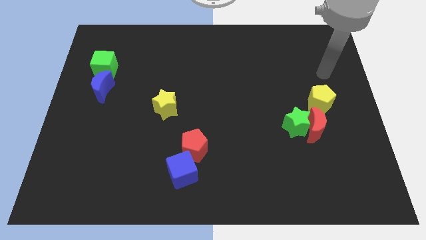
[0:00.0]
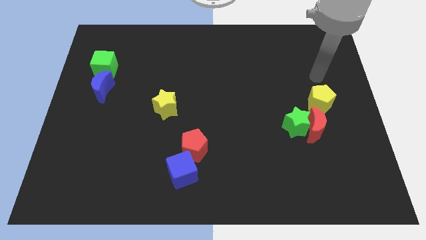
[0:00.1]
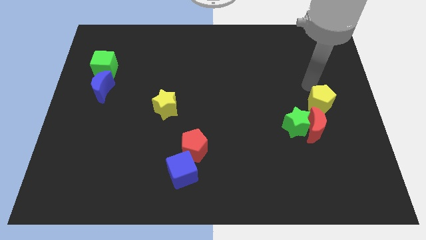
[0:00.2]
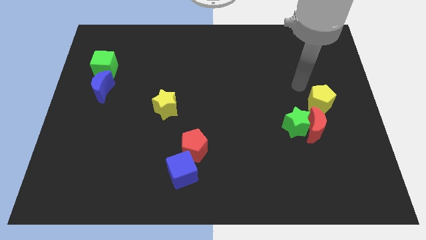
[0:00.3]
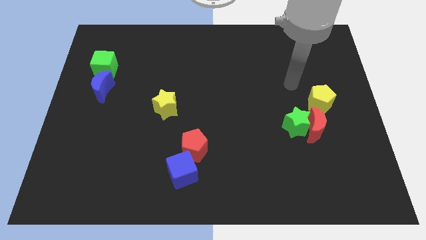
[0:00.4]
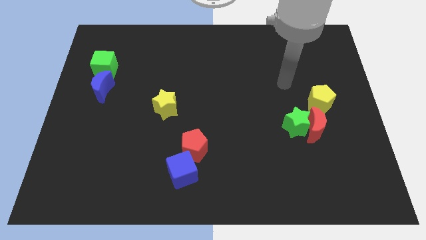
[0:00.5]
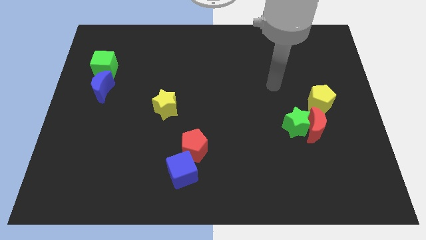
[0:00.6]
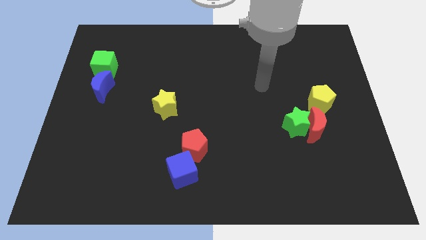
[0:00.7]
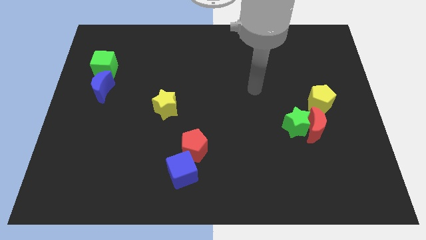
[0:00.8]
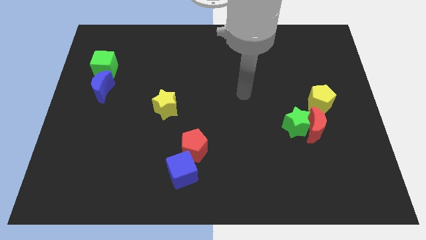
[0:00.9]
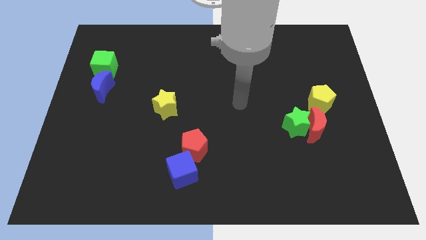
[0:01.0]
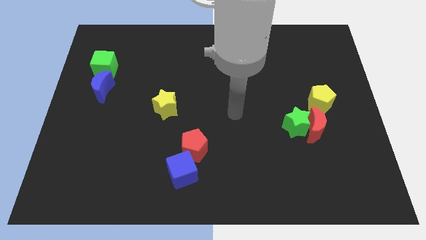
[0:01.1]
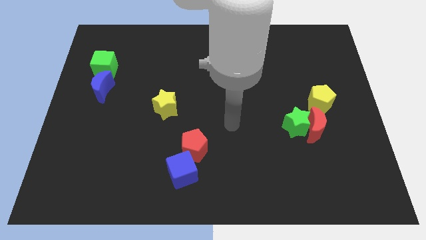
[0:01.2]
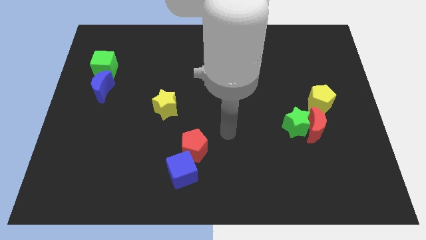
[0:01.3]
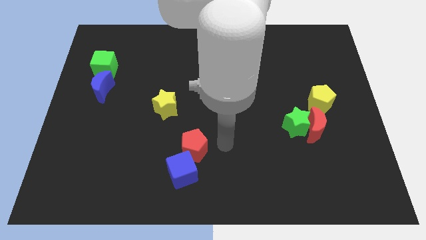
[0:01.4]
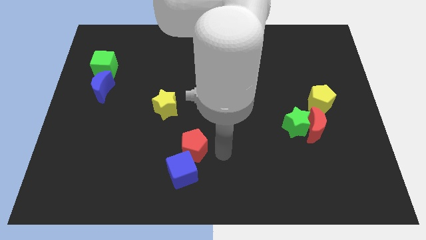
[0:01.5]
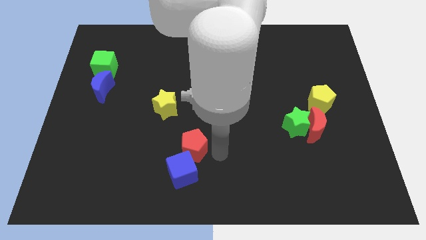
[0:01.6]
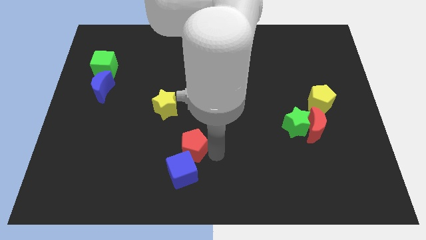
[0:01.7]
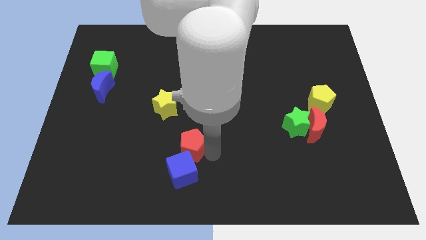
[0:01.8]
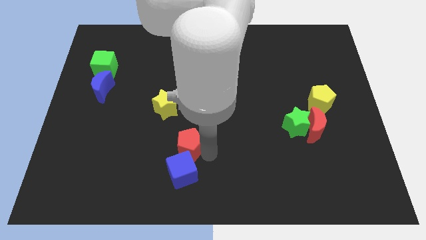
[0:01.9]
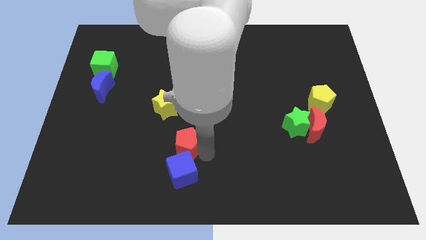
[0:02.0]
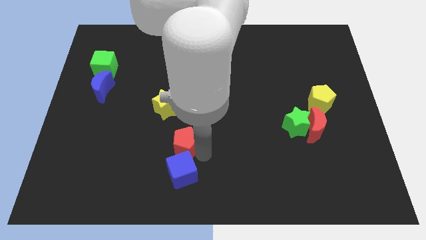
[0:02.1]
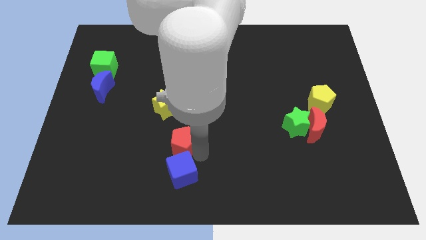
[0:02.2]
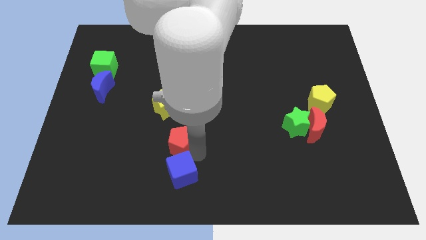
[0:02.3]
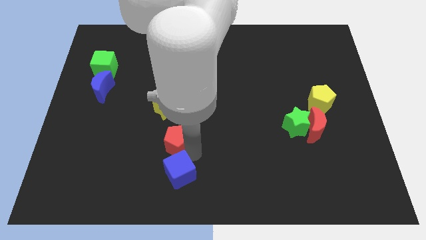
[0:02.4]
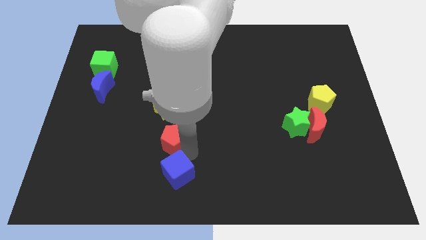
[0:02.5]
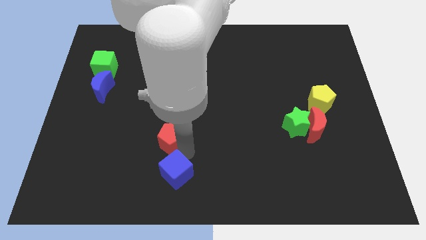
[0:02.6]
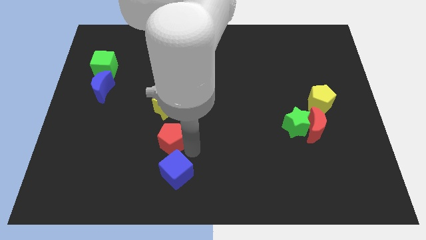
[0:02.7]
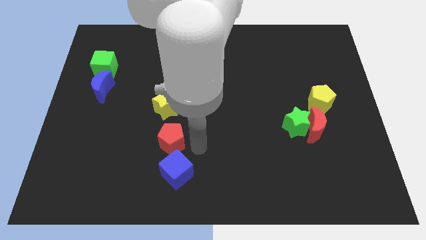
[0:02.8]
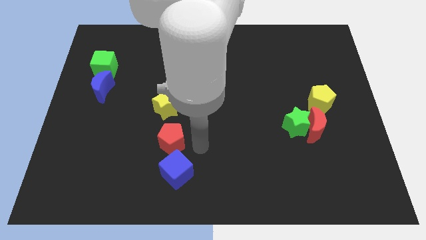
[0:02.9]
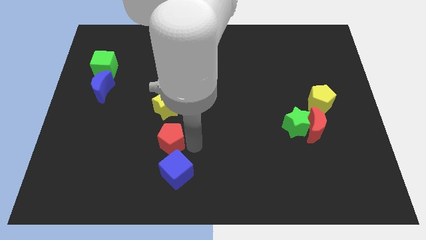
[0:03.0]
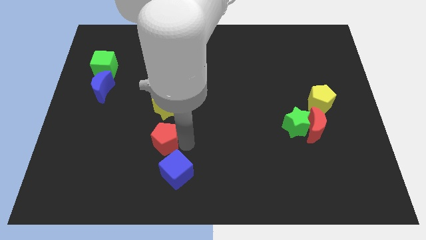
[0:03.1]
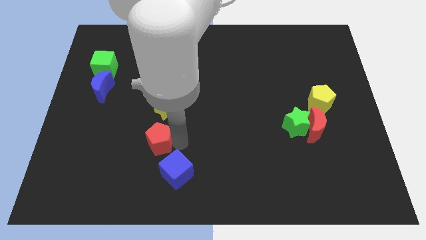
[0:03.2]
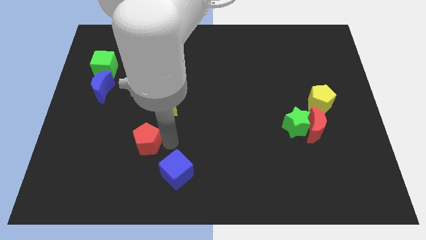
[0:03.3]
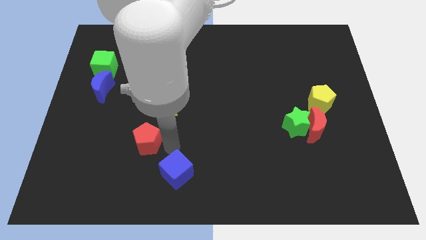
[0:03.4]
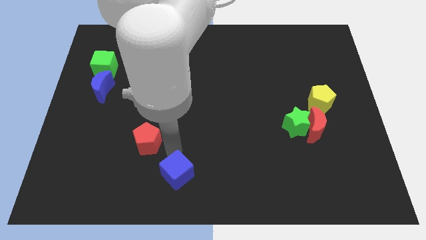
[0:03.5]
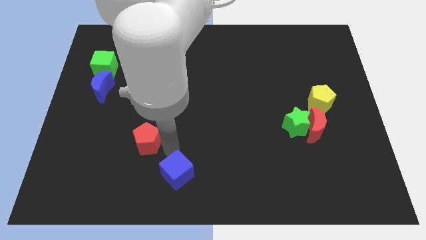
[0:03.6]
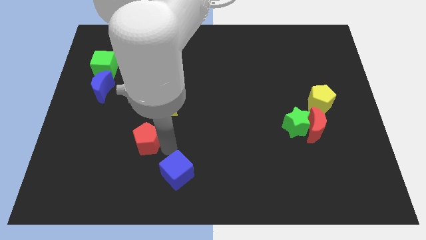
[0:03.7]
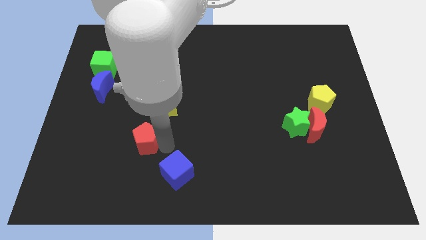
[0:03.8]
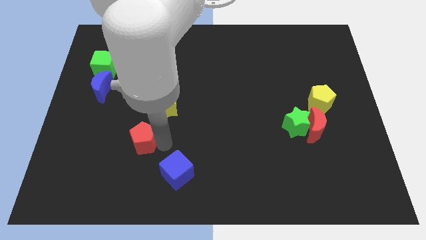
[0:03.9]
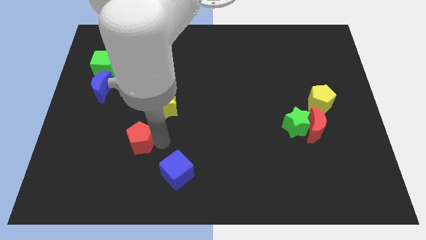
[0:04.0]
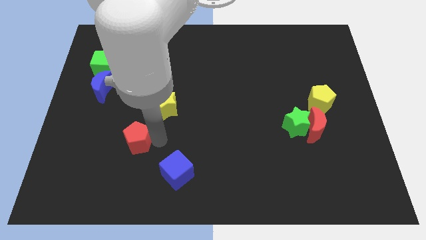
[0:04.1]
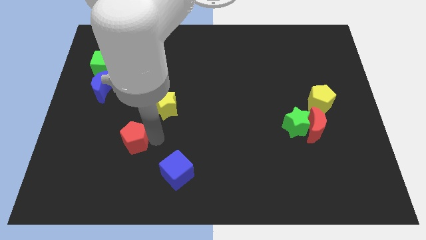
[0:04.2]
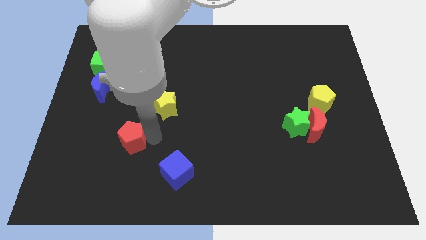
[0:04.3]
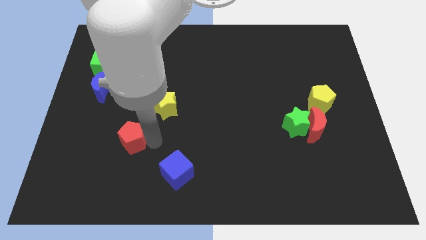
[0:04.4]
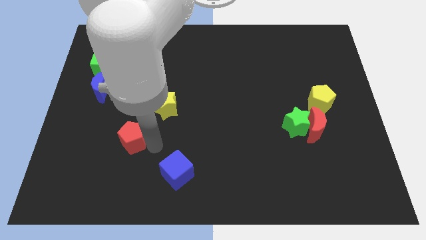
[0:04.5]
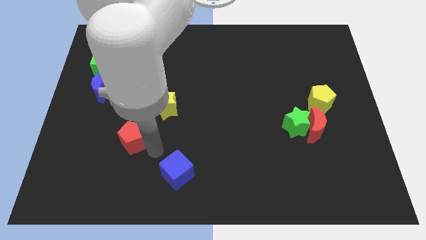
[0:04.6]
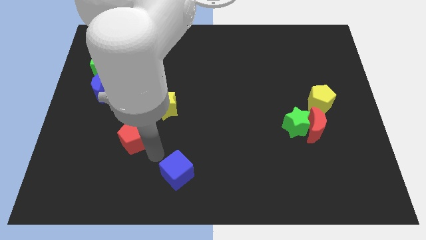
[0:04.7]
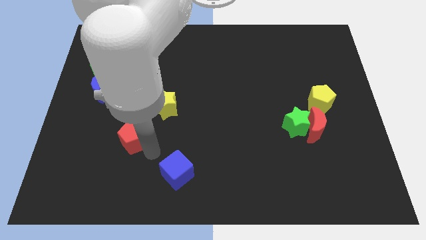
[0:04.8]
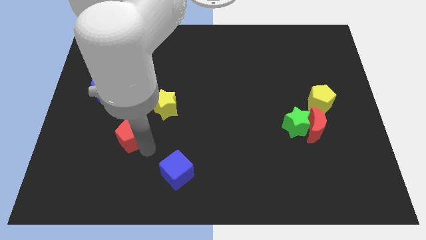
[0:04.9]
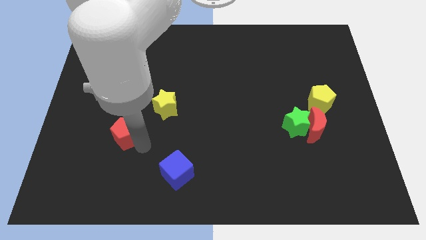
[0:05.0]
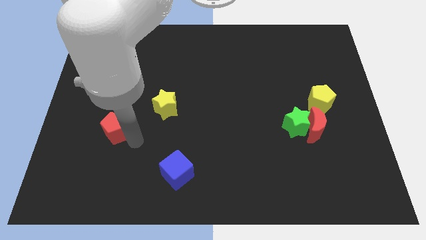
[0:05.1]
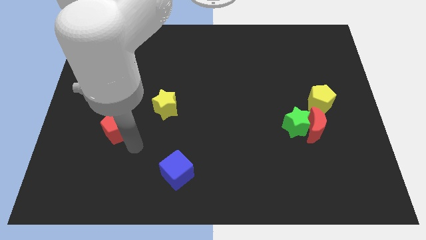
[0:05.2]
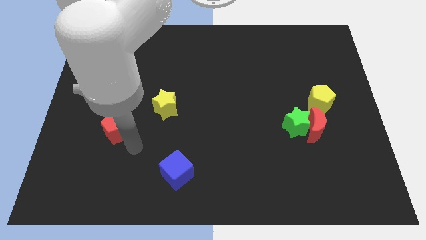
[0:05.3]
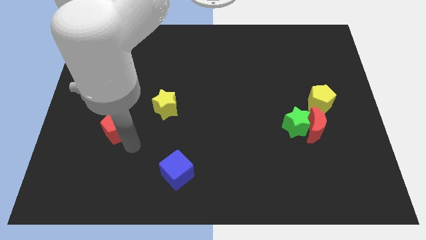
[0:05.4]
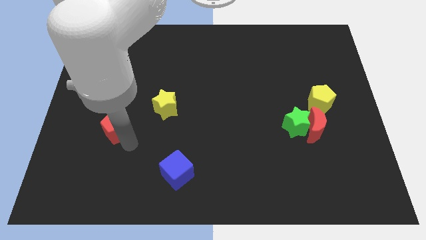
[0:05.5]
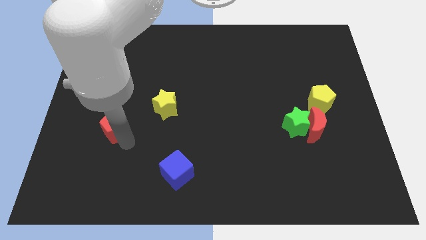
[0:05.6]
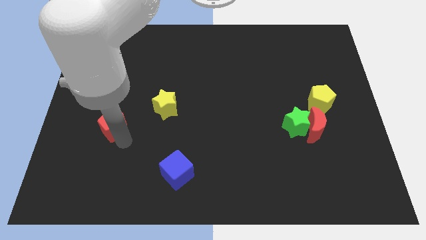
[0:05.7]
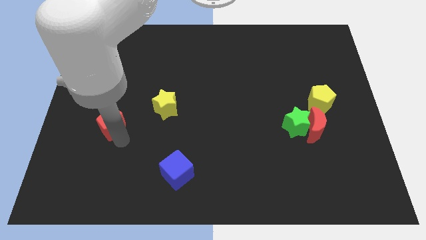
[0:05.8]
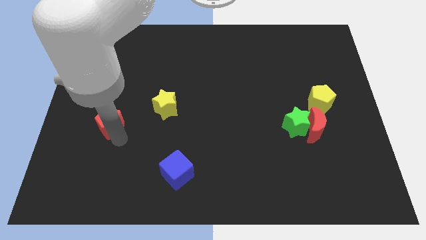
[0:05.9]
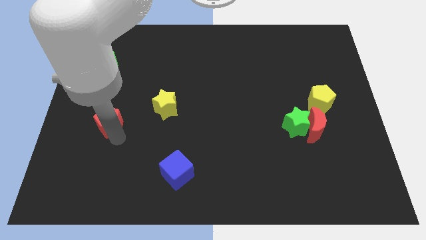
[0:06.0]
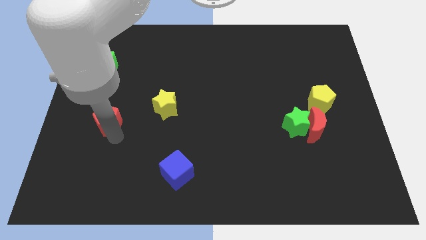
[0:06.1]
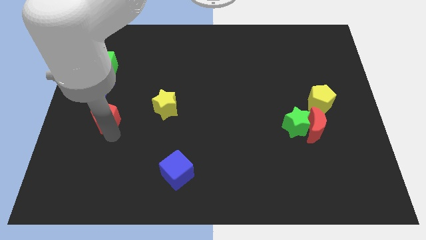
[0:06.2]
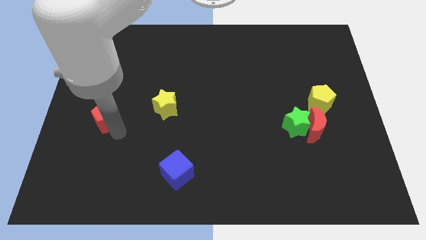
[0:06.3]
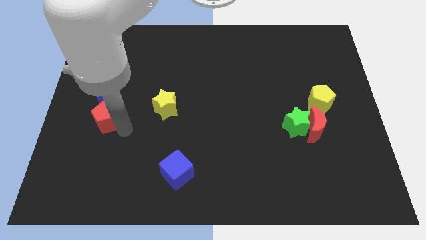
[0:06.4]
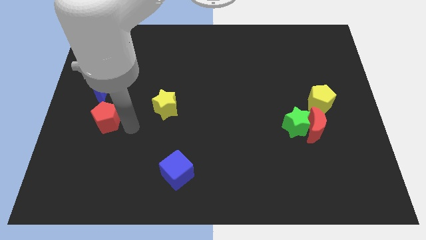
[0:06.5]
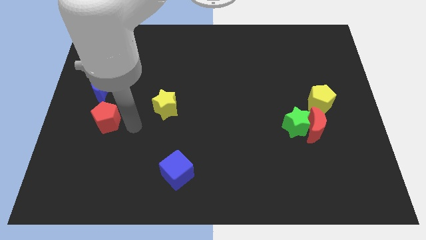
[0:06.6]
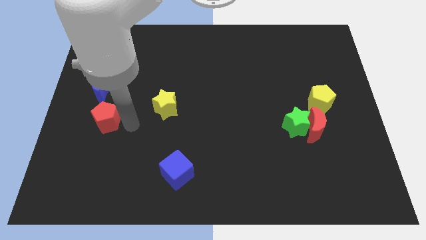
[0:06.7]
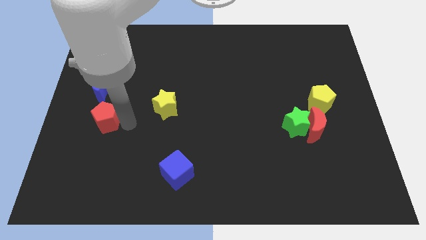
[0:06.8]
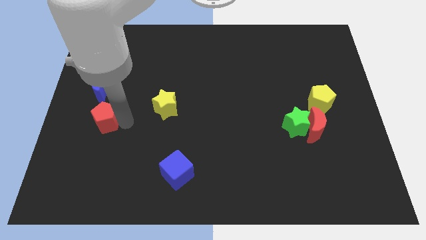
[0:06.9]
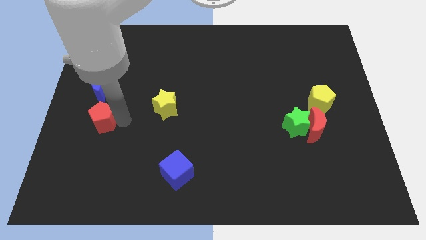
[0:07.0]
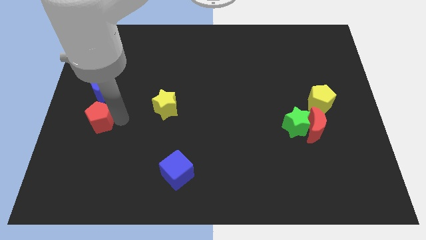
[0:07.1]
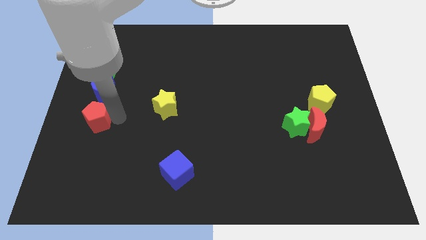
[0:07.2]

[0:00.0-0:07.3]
push the red pentagon to the left side of the board
